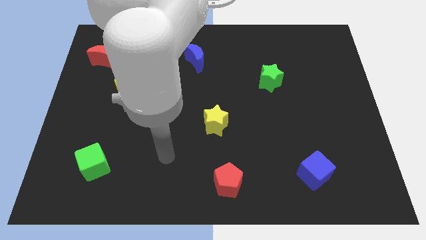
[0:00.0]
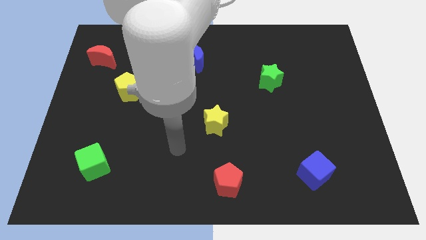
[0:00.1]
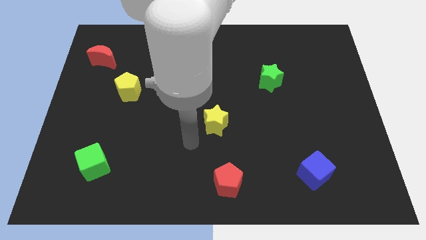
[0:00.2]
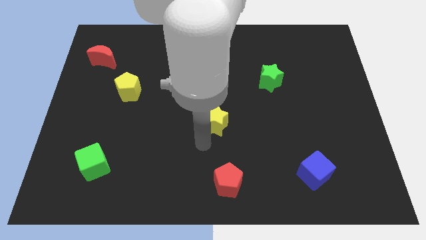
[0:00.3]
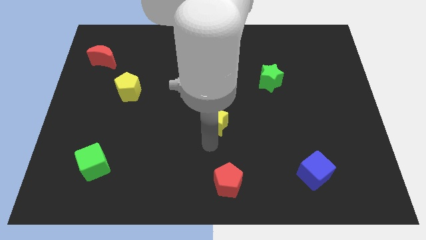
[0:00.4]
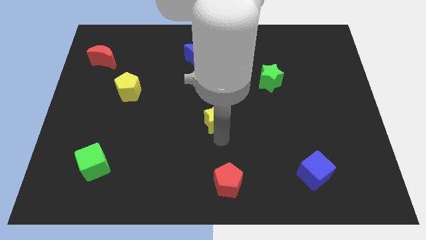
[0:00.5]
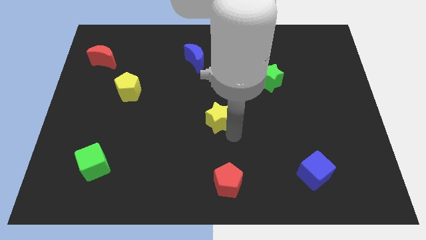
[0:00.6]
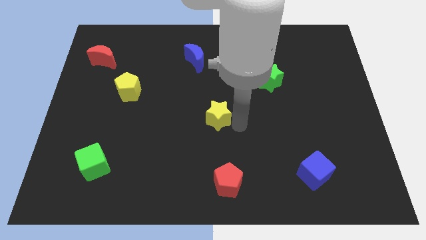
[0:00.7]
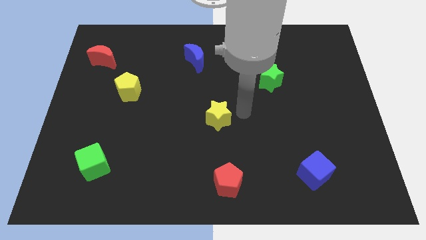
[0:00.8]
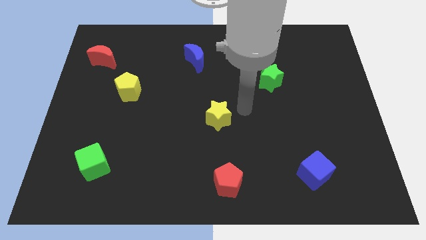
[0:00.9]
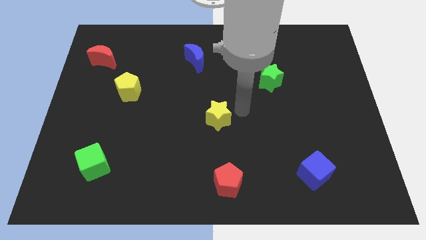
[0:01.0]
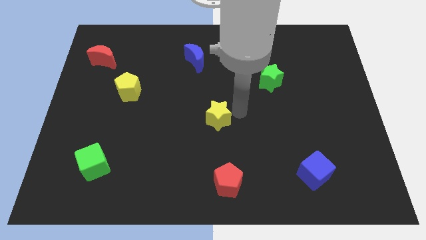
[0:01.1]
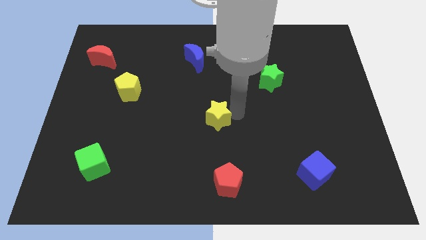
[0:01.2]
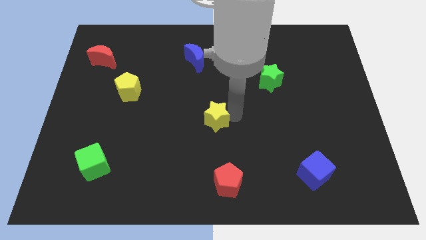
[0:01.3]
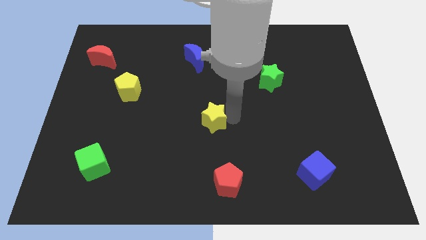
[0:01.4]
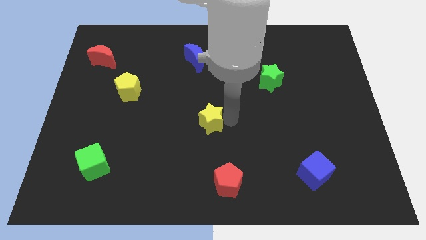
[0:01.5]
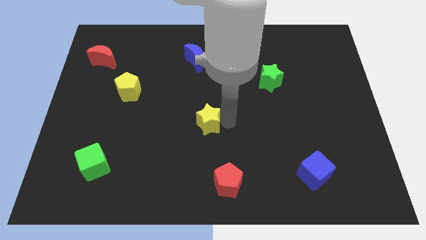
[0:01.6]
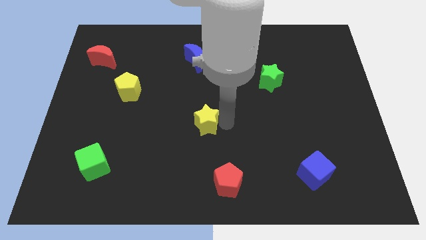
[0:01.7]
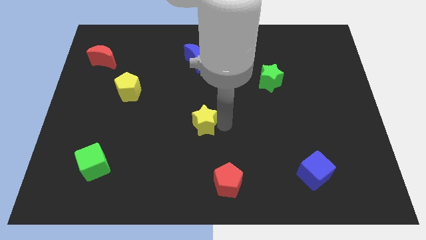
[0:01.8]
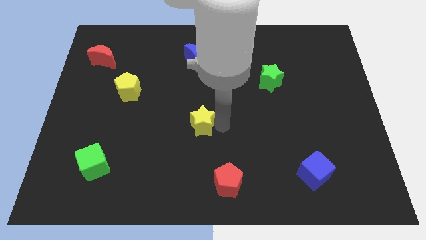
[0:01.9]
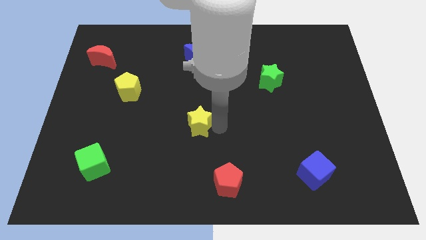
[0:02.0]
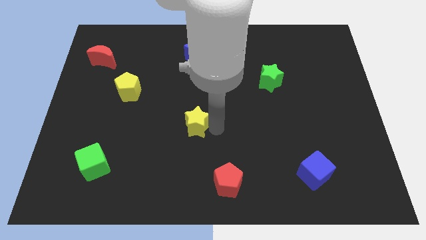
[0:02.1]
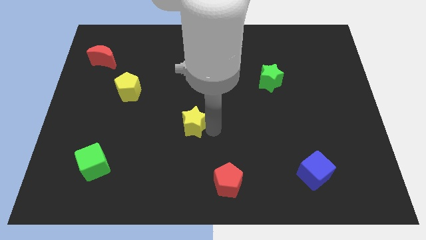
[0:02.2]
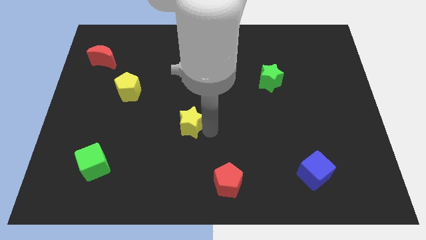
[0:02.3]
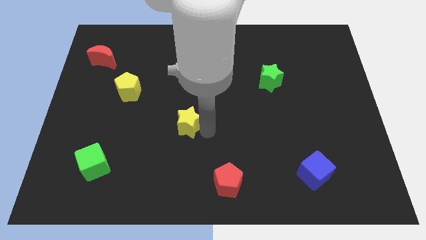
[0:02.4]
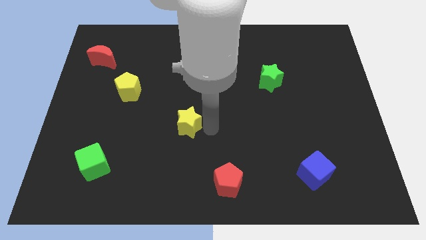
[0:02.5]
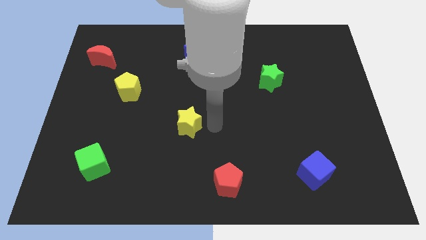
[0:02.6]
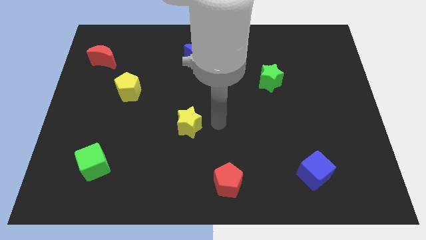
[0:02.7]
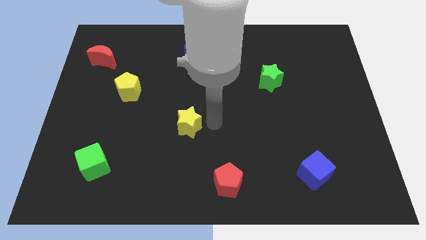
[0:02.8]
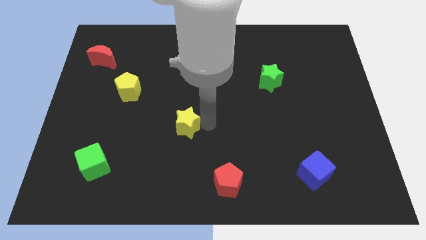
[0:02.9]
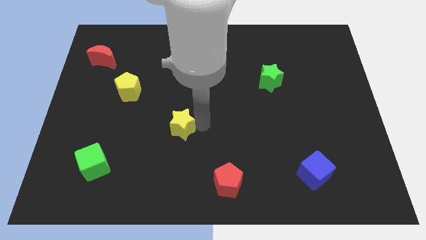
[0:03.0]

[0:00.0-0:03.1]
slide the yellow star to the left a bit

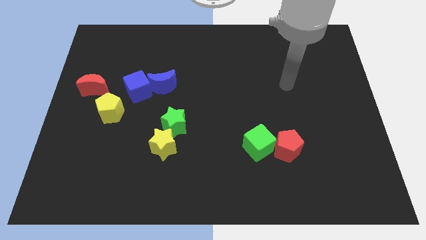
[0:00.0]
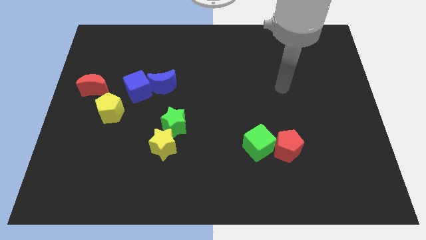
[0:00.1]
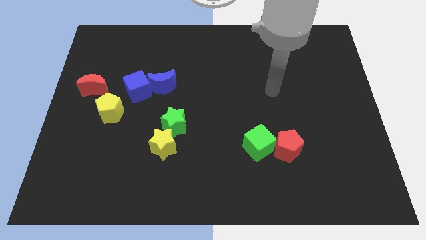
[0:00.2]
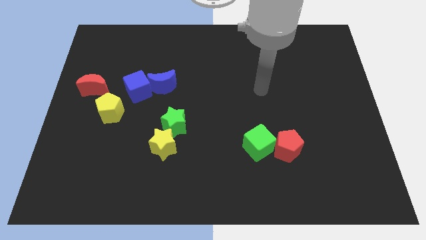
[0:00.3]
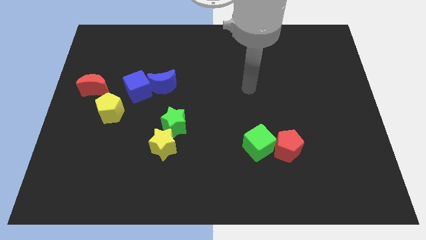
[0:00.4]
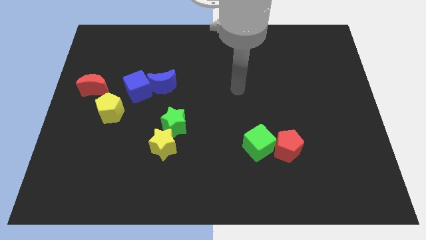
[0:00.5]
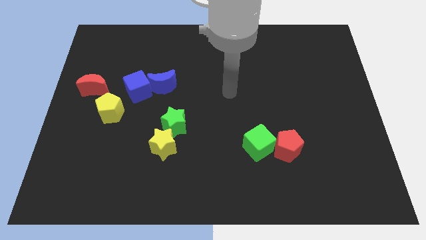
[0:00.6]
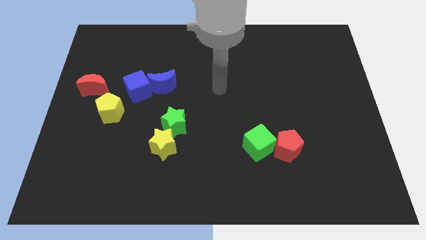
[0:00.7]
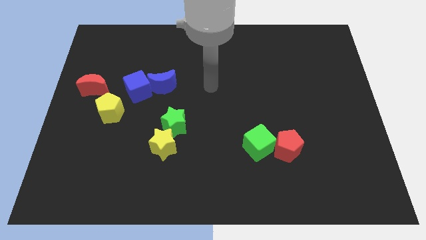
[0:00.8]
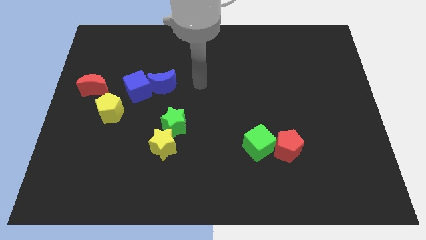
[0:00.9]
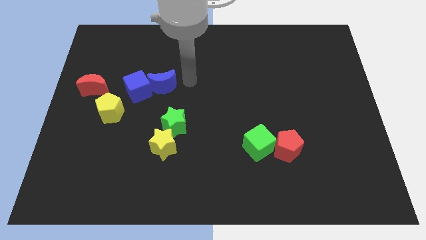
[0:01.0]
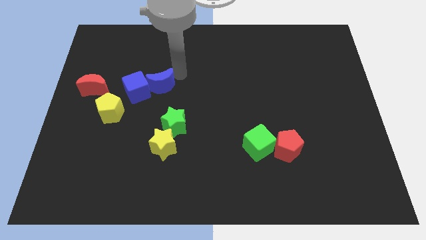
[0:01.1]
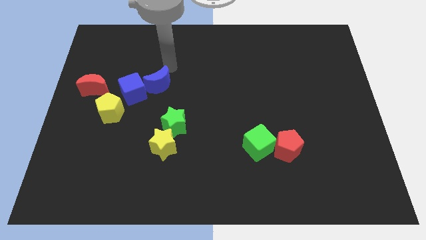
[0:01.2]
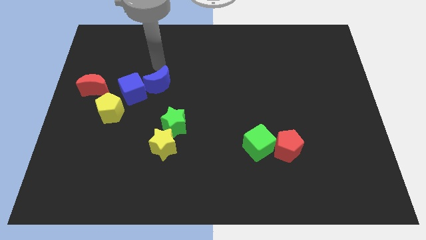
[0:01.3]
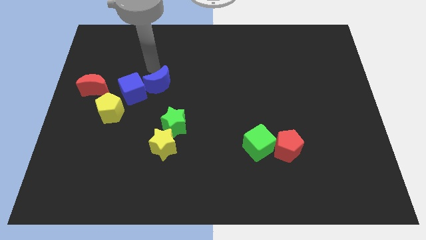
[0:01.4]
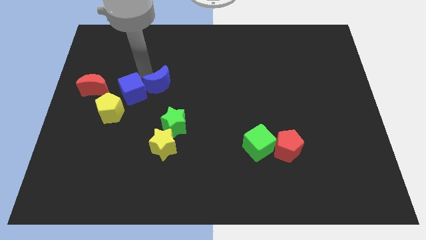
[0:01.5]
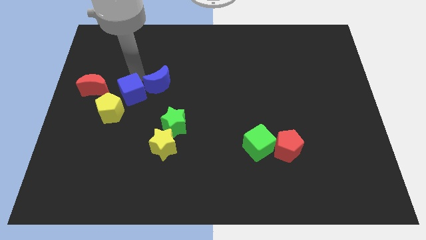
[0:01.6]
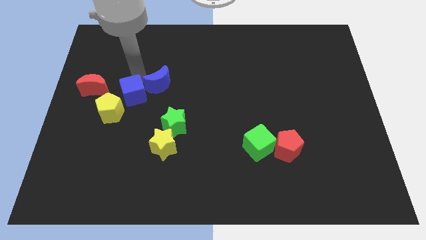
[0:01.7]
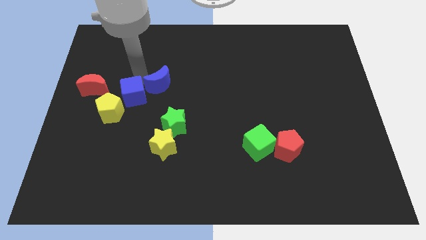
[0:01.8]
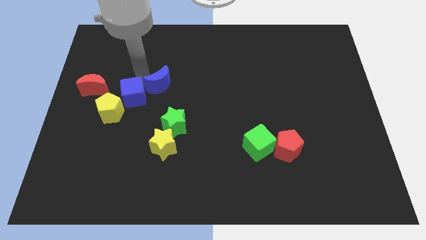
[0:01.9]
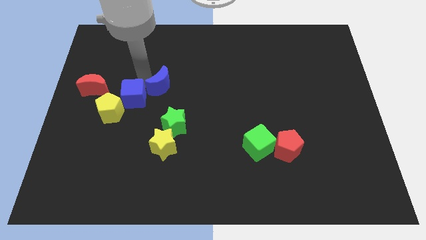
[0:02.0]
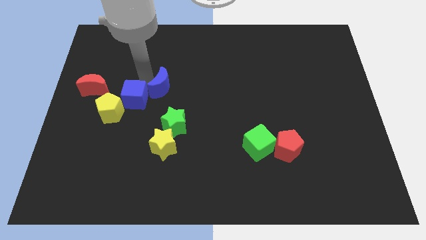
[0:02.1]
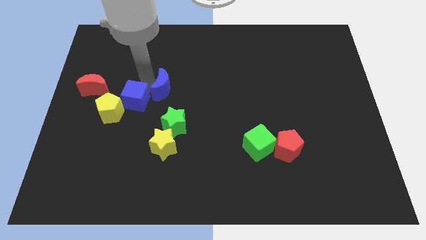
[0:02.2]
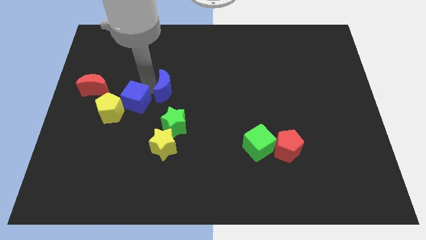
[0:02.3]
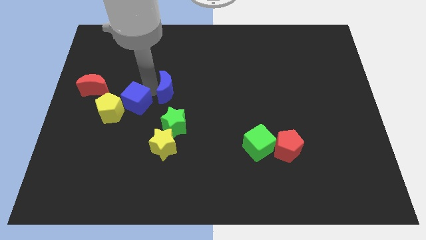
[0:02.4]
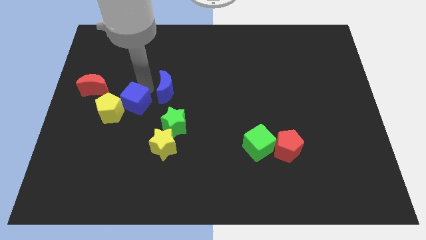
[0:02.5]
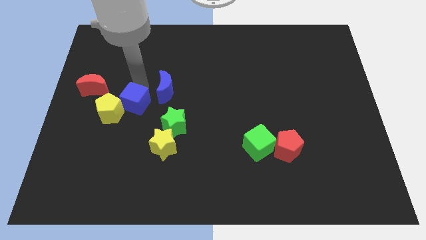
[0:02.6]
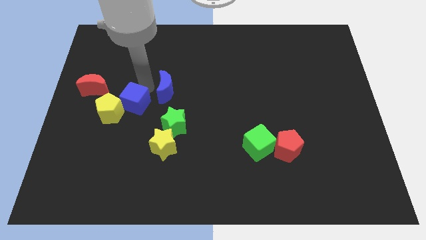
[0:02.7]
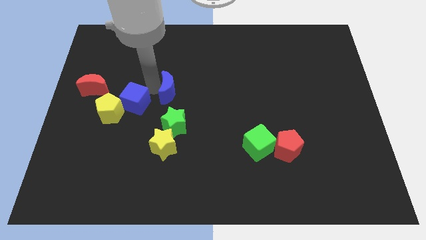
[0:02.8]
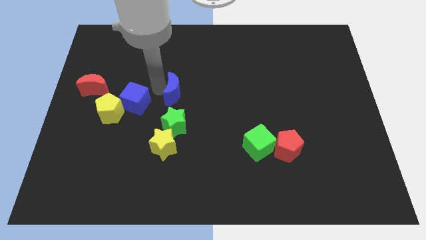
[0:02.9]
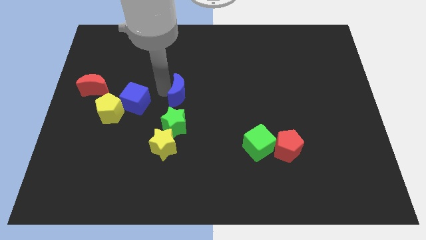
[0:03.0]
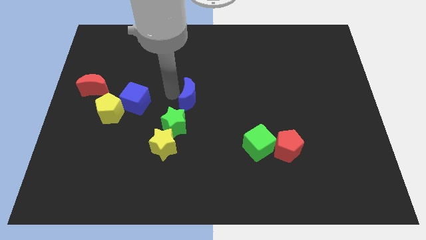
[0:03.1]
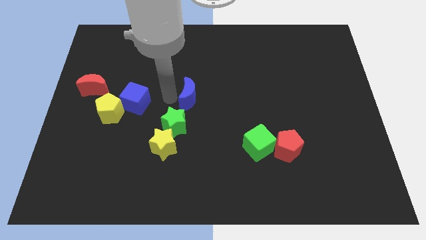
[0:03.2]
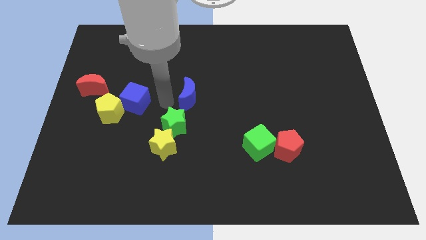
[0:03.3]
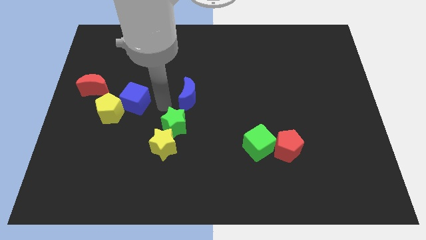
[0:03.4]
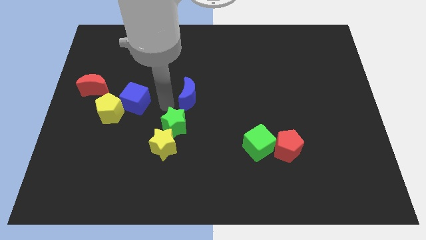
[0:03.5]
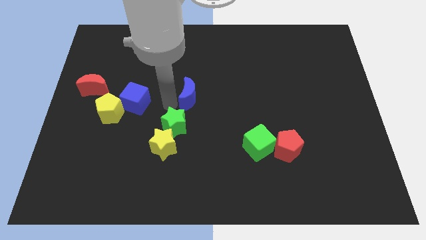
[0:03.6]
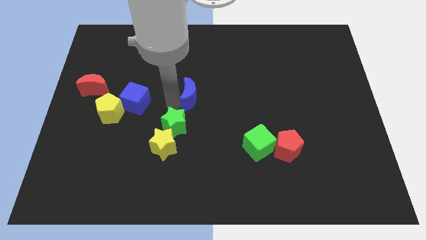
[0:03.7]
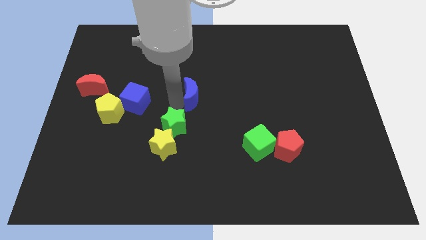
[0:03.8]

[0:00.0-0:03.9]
slightly move the blue moon to the right

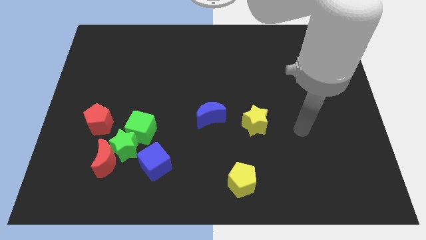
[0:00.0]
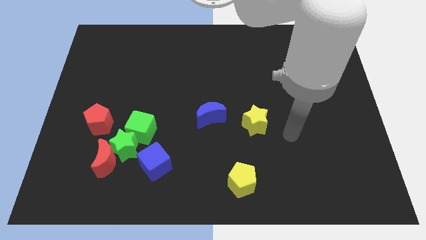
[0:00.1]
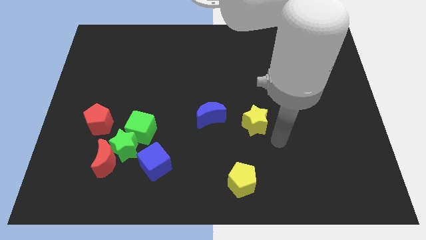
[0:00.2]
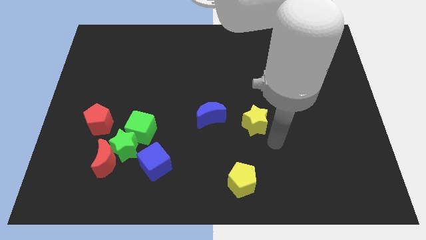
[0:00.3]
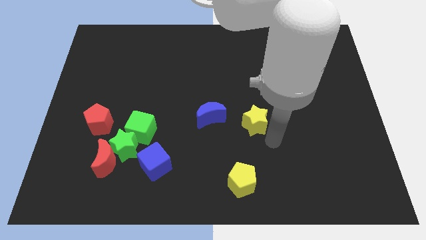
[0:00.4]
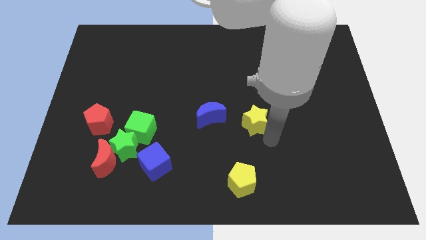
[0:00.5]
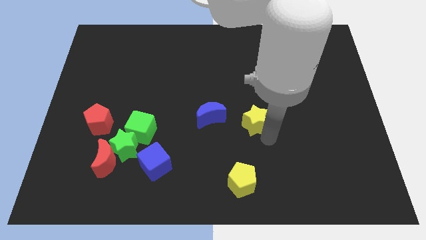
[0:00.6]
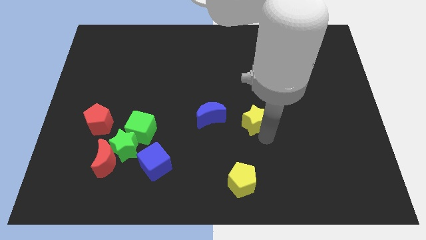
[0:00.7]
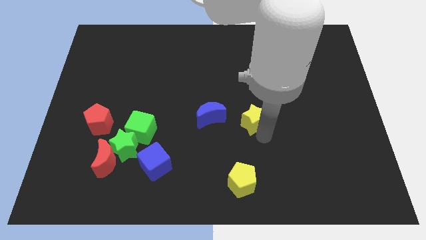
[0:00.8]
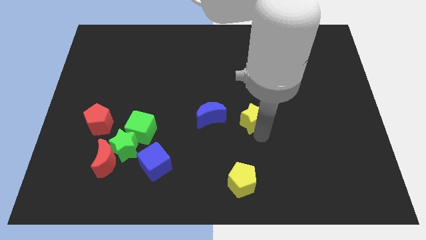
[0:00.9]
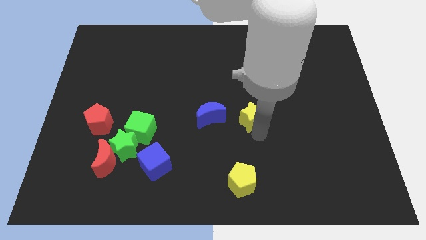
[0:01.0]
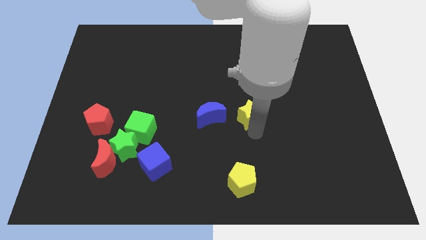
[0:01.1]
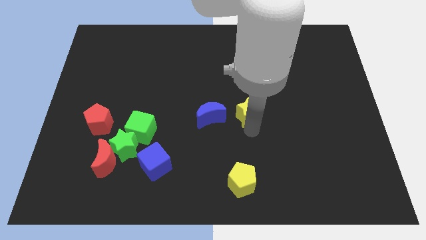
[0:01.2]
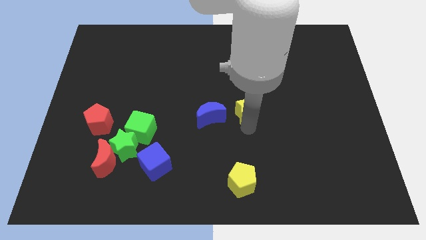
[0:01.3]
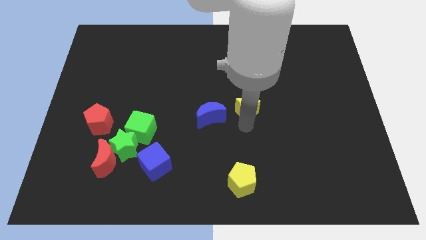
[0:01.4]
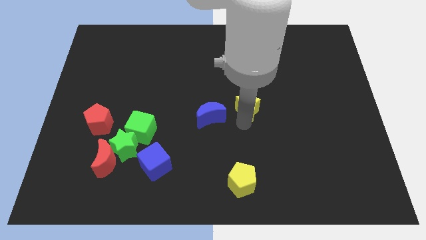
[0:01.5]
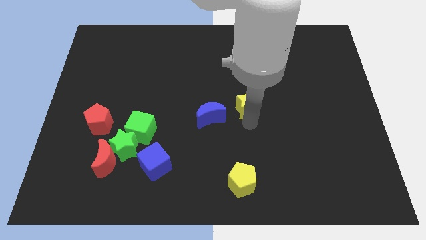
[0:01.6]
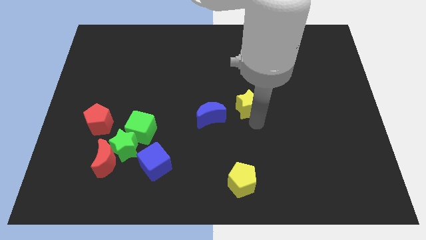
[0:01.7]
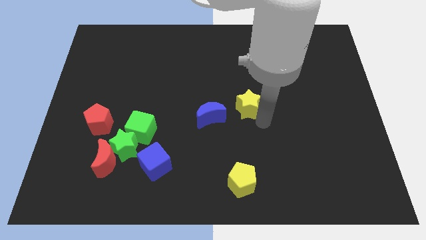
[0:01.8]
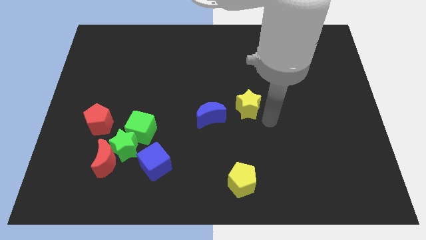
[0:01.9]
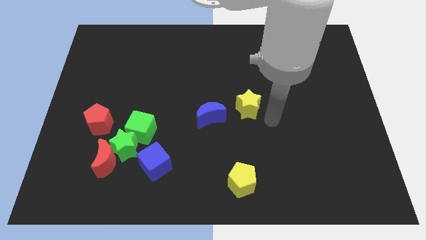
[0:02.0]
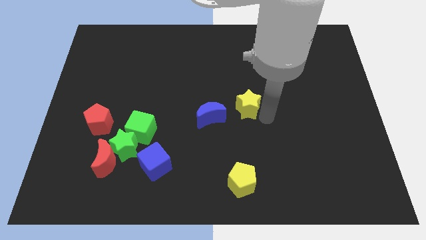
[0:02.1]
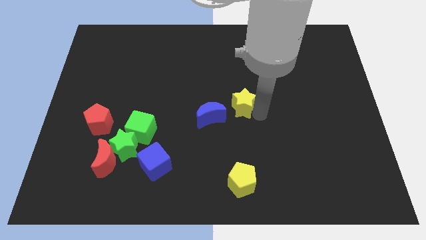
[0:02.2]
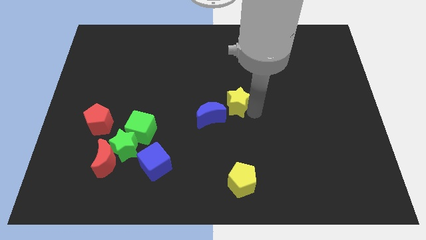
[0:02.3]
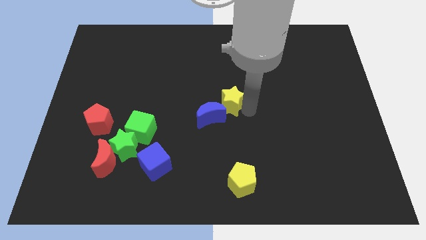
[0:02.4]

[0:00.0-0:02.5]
slide the yellow star upwards and left diagonally a little
